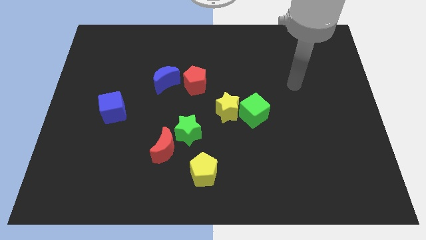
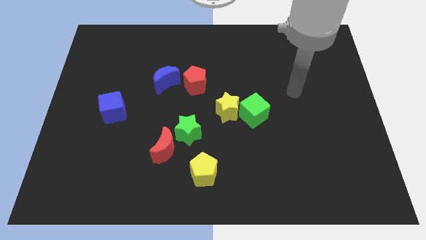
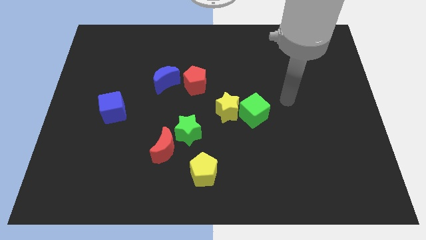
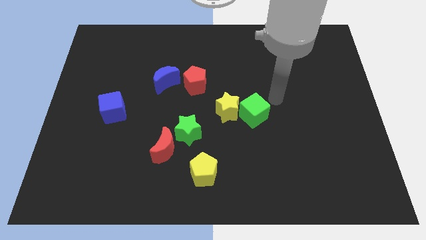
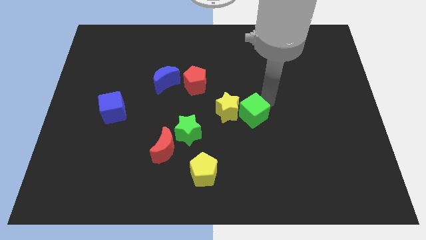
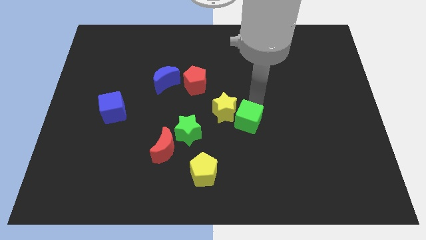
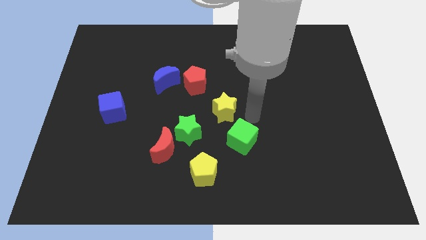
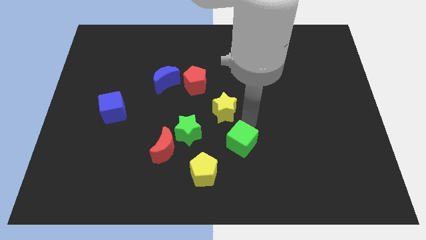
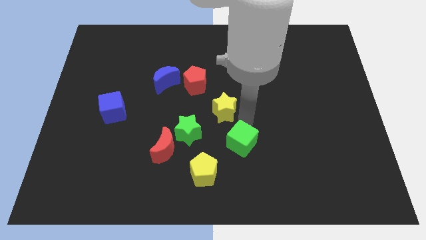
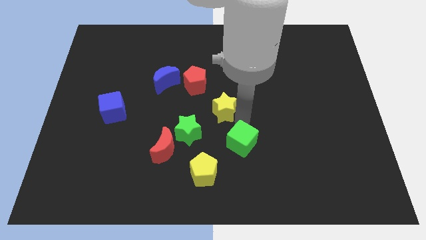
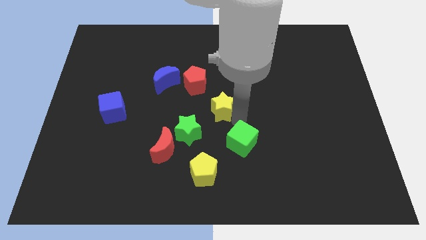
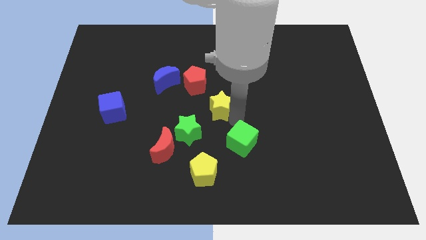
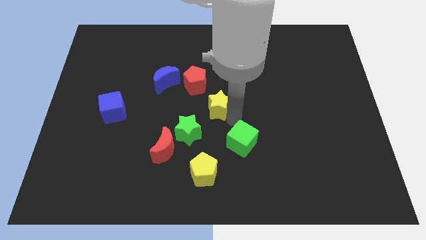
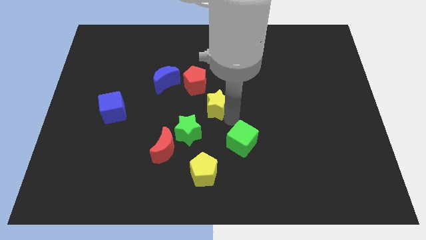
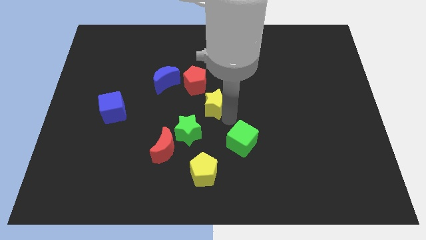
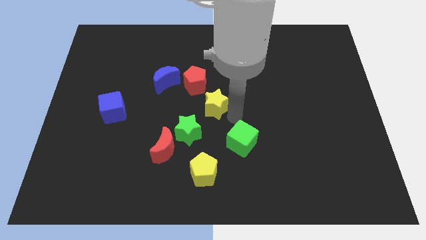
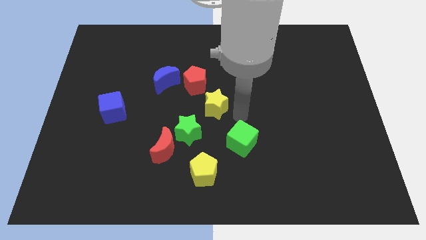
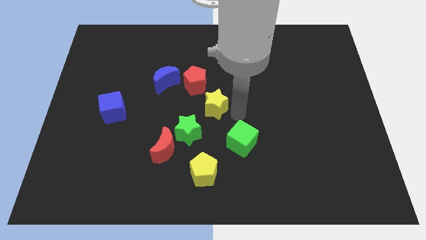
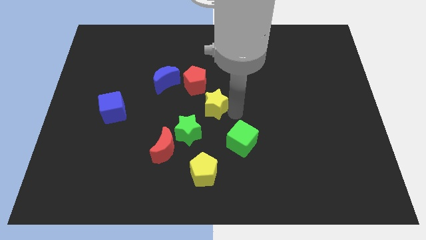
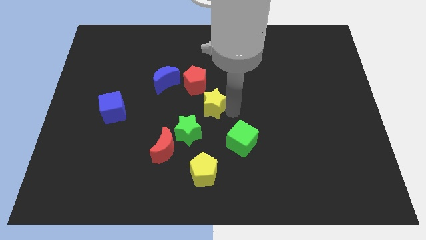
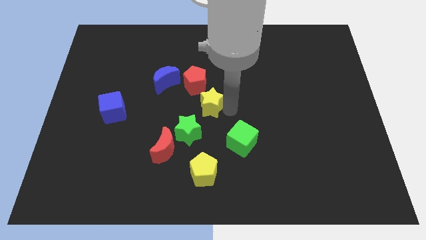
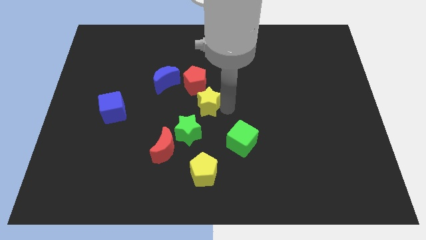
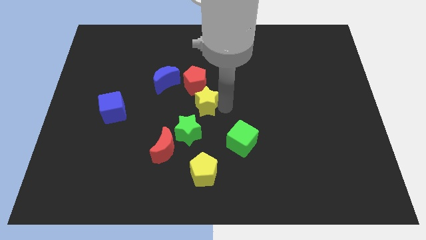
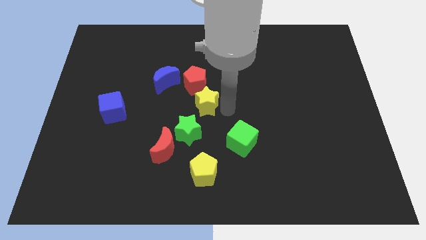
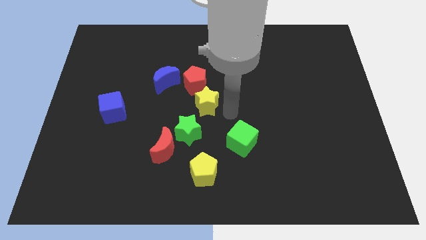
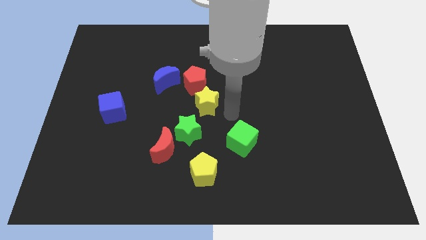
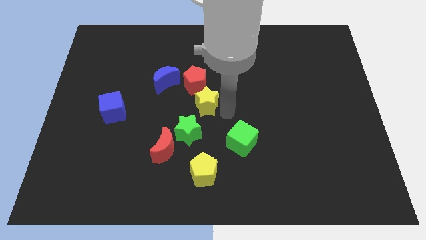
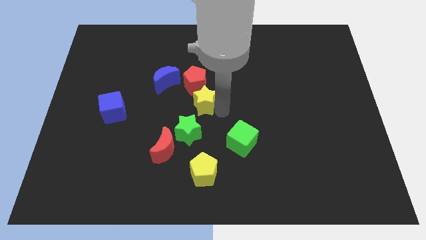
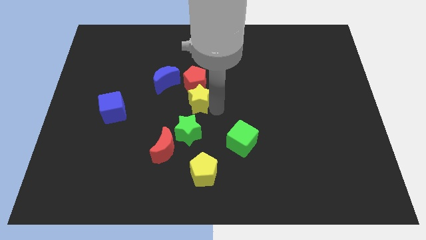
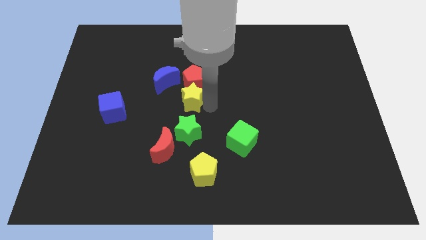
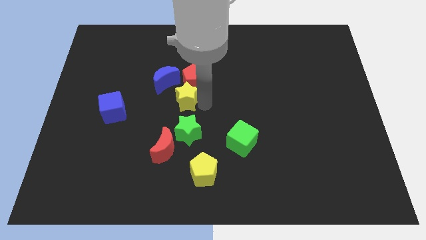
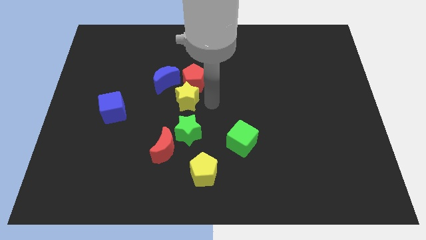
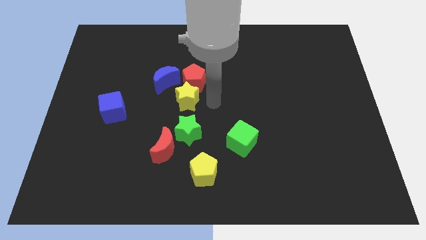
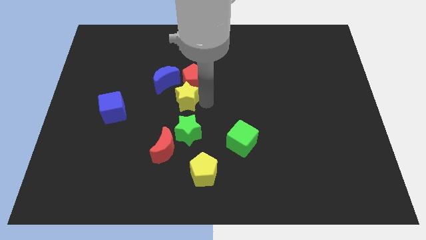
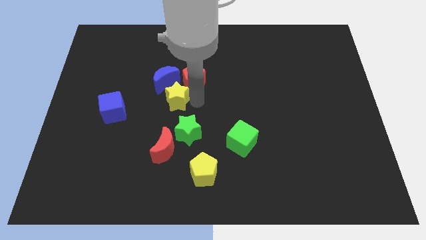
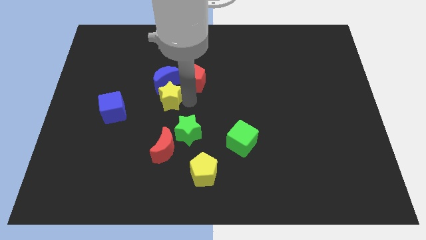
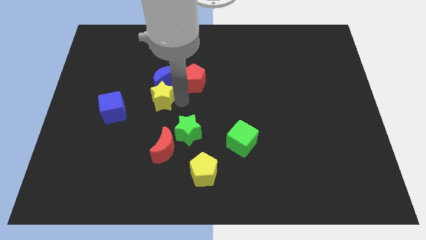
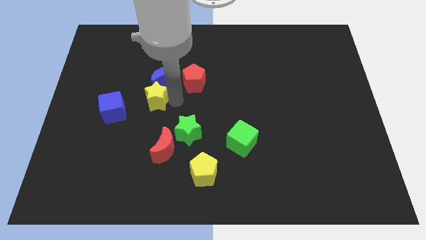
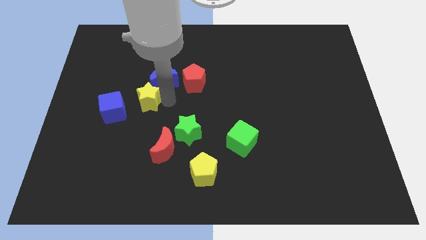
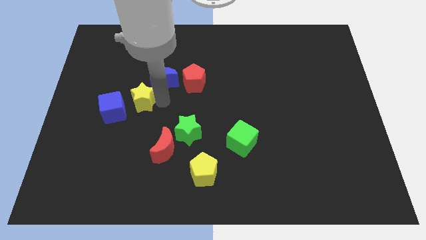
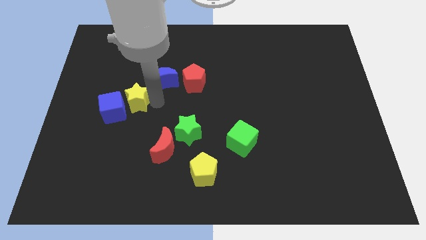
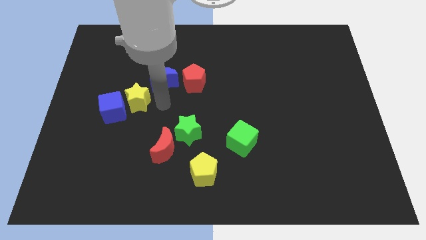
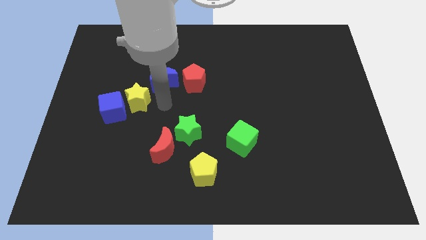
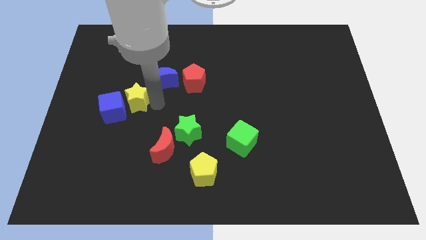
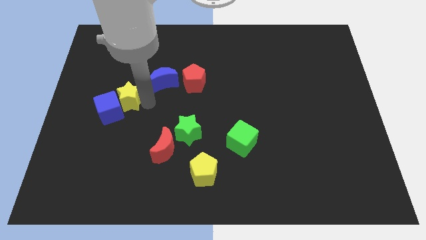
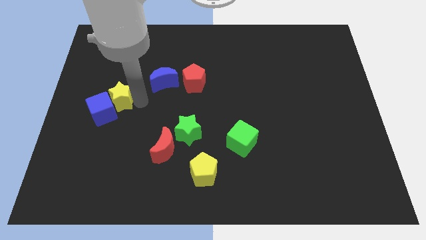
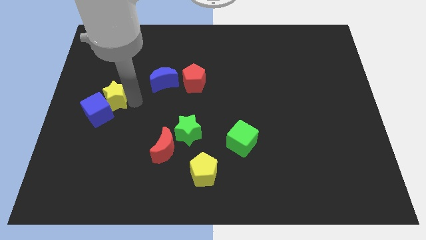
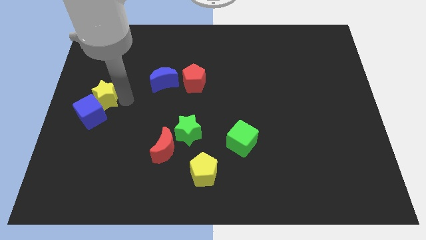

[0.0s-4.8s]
move the yellow star to the left side of the board

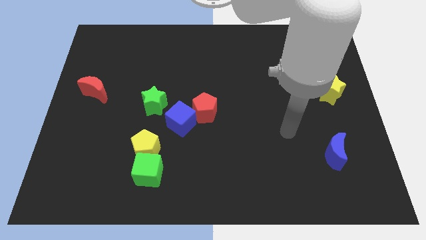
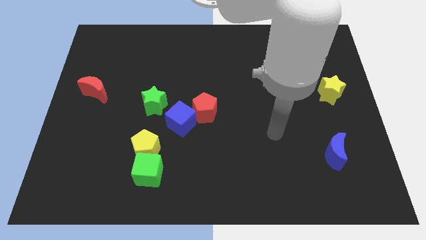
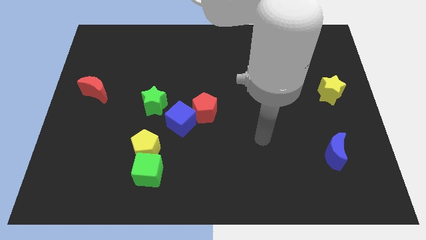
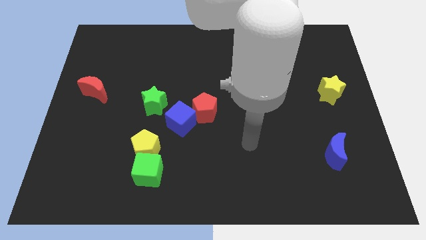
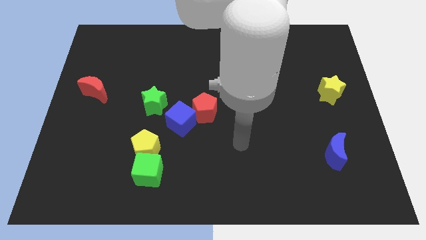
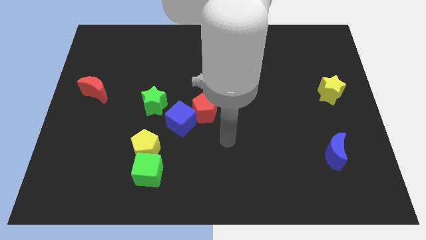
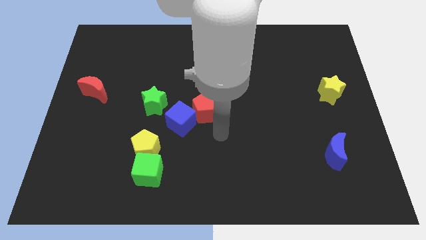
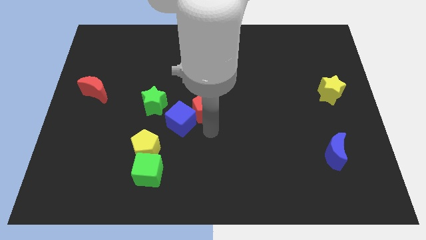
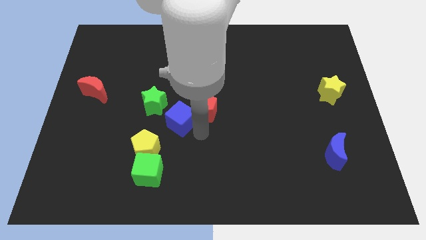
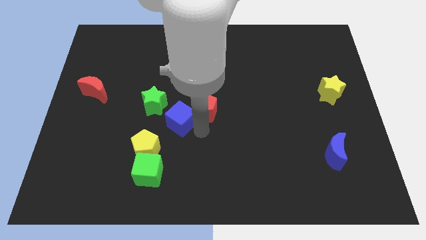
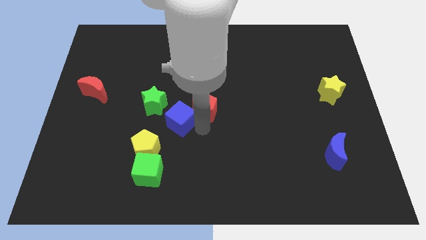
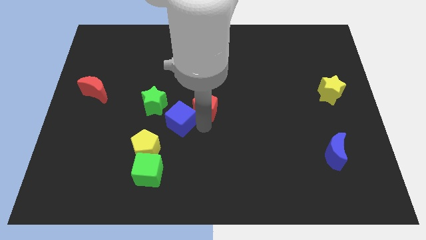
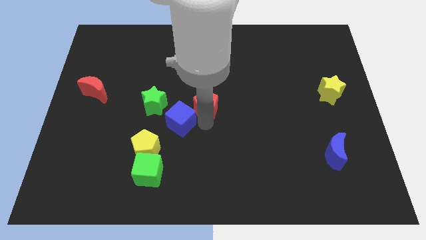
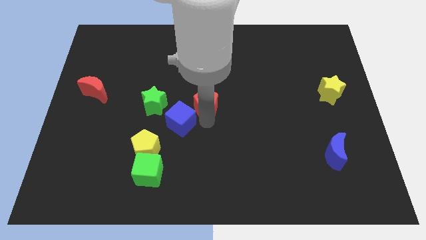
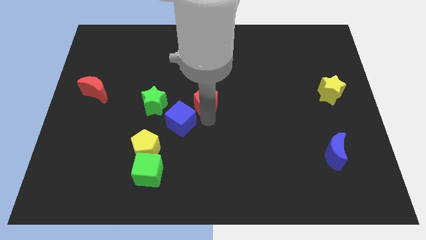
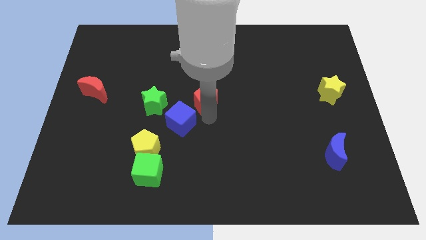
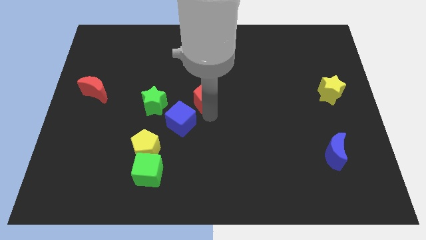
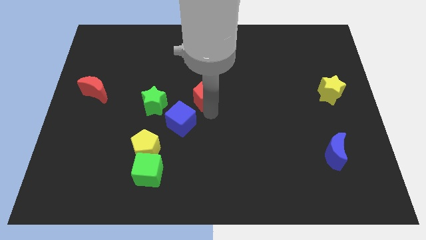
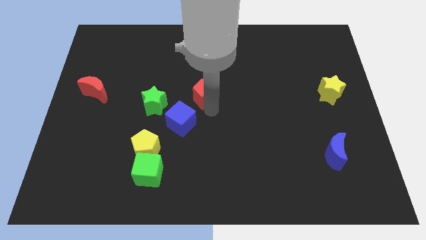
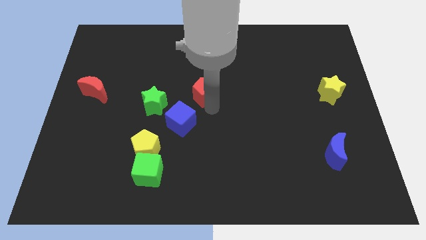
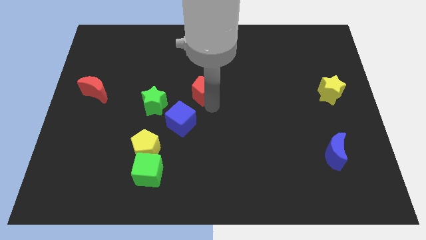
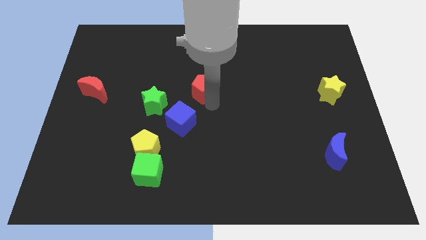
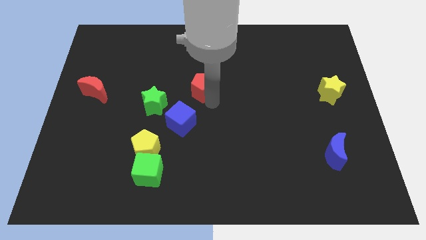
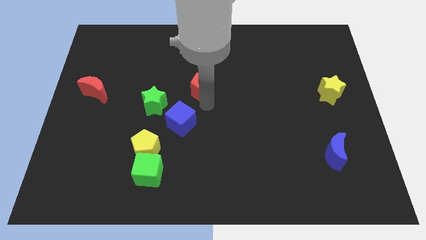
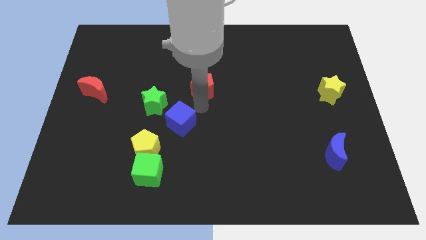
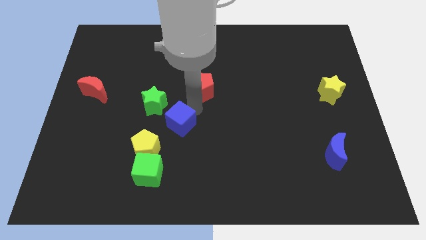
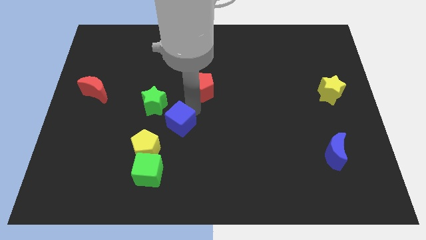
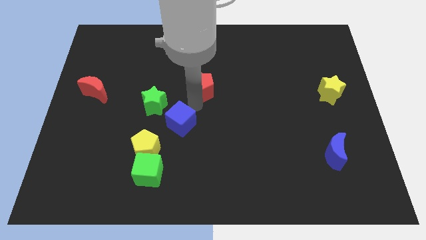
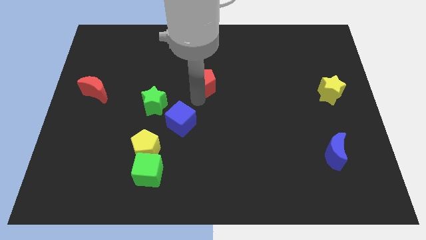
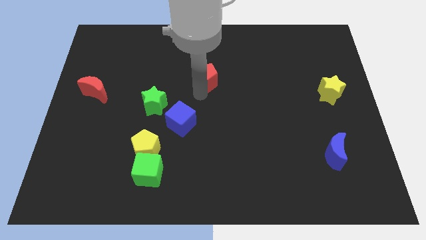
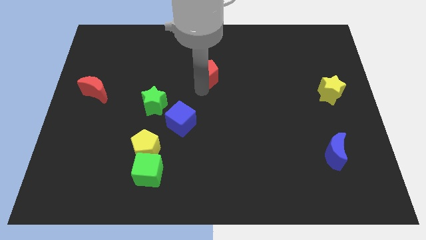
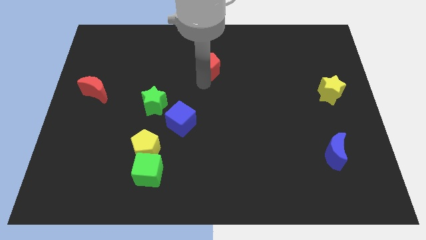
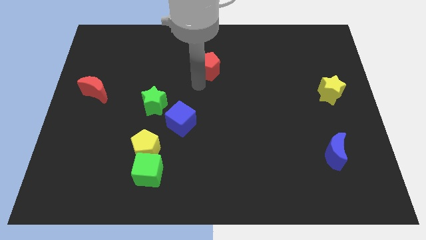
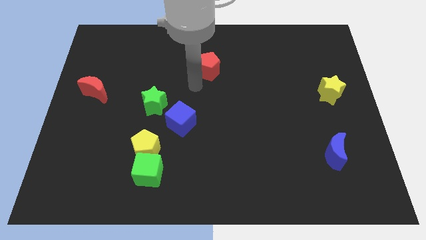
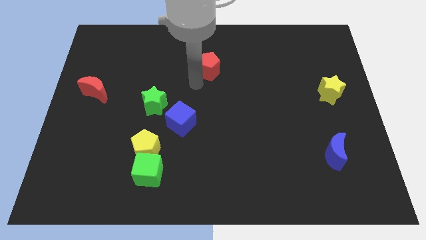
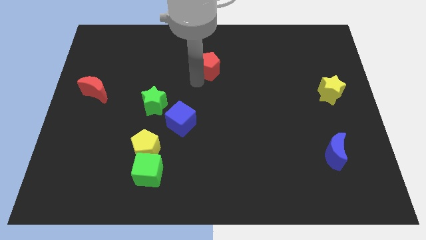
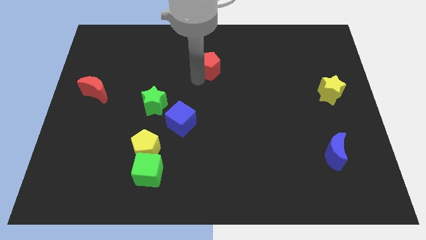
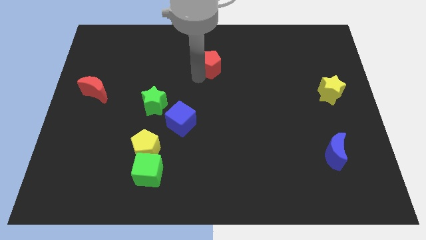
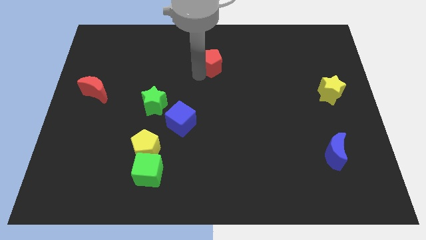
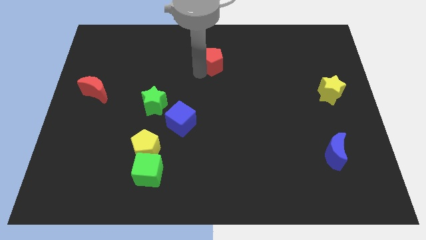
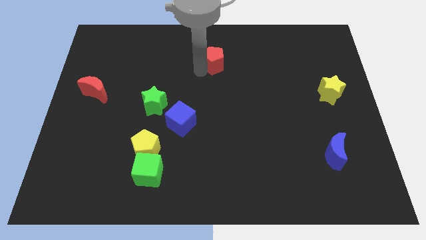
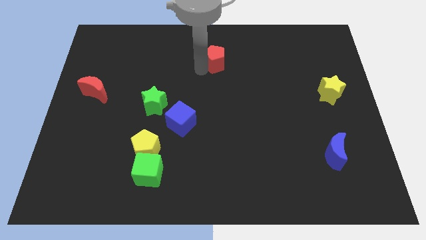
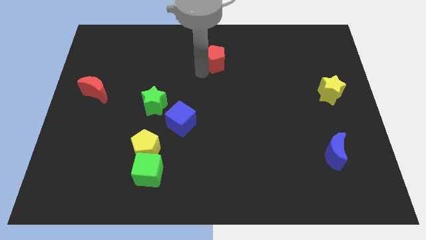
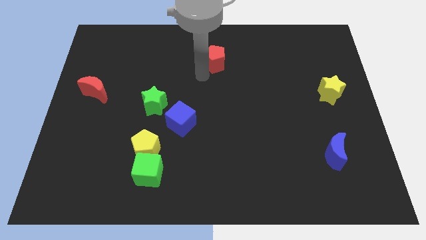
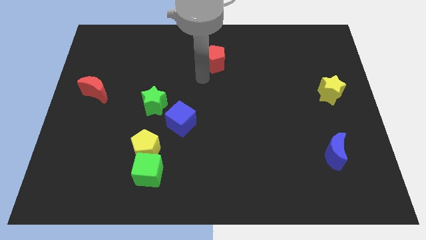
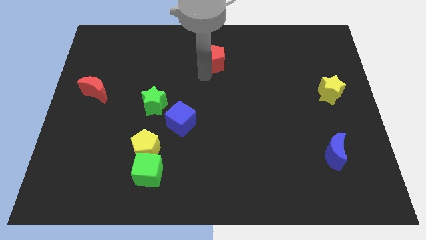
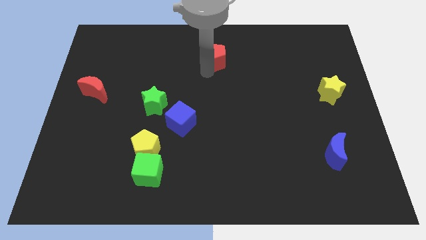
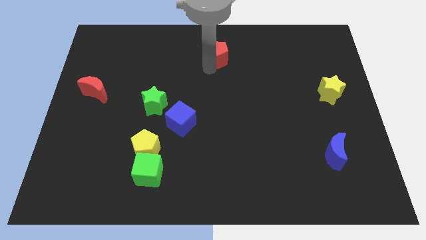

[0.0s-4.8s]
move the red pentagon to the towards your base
